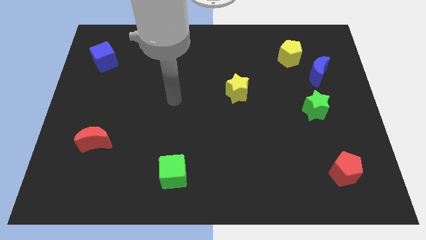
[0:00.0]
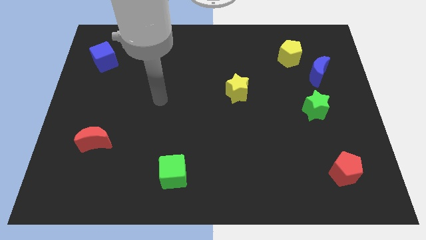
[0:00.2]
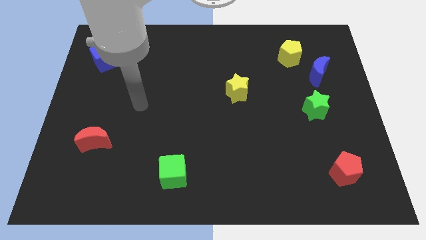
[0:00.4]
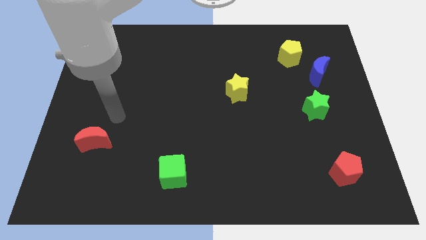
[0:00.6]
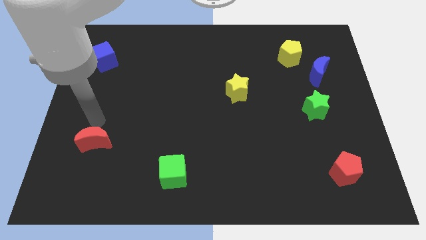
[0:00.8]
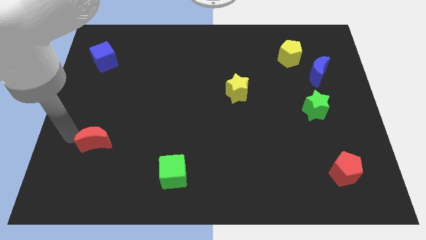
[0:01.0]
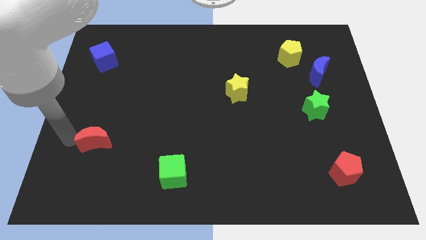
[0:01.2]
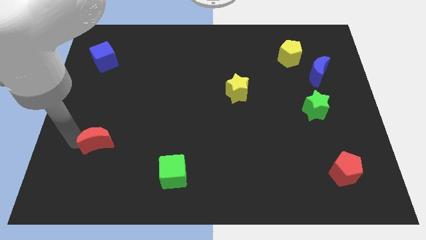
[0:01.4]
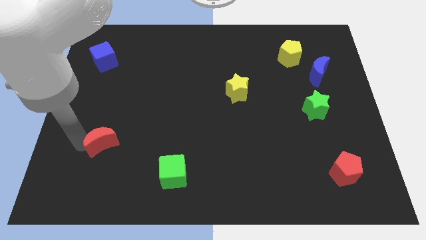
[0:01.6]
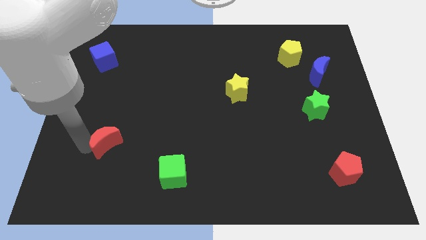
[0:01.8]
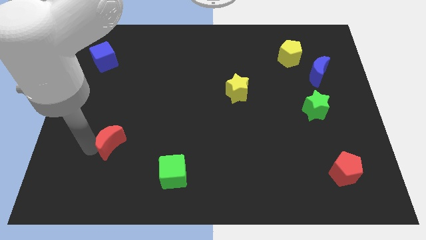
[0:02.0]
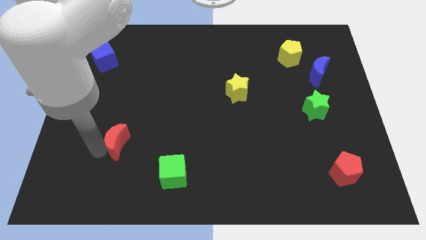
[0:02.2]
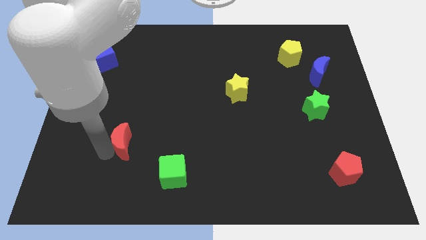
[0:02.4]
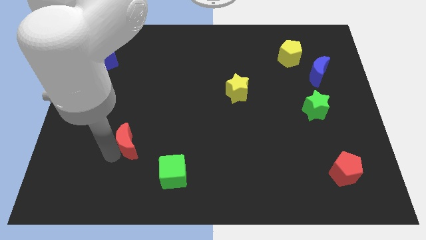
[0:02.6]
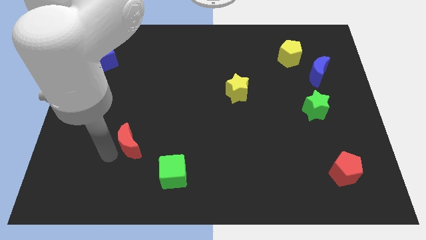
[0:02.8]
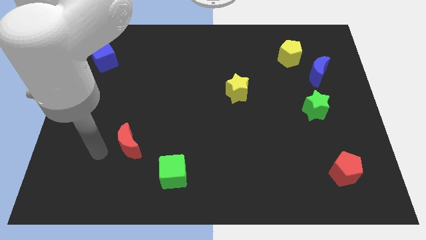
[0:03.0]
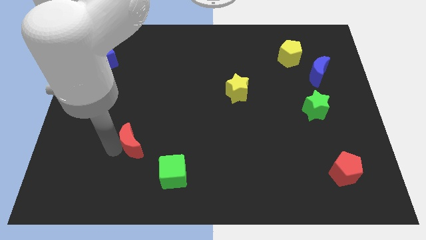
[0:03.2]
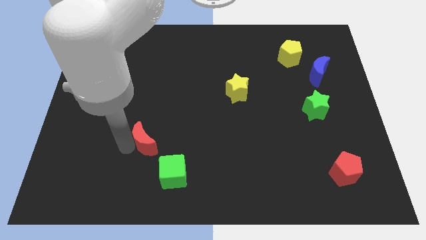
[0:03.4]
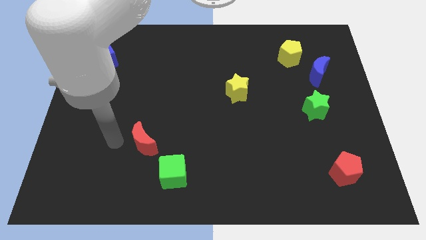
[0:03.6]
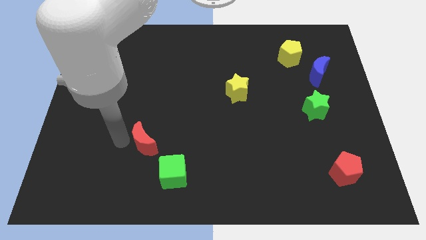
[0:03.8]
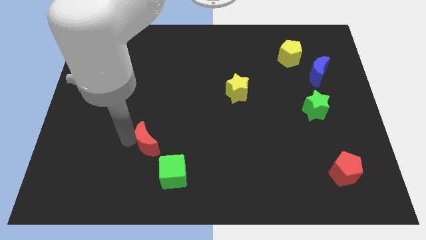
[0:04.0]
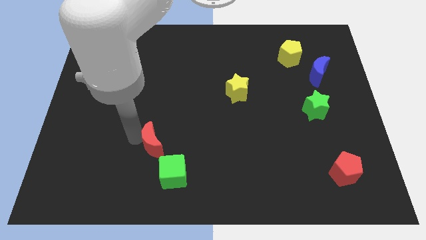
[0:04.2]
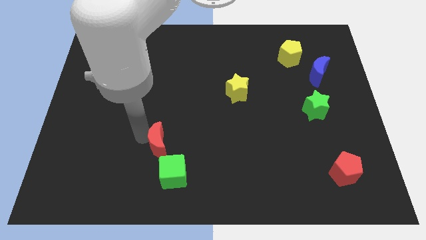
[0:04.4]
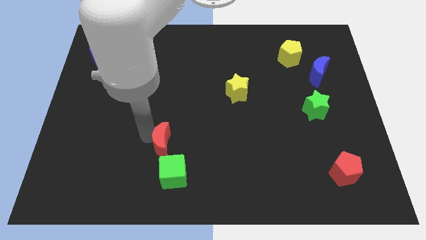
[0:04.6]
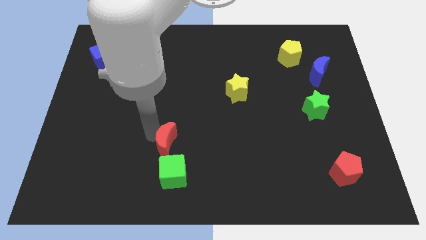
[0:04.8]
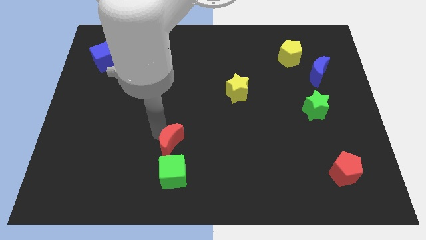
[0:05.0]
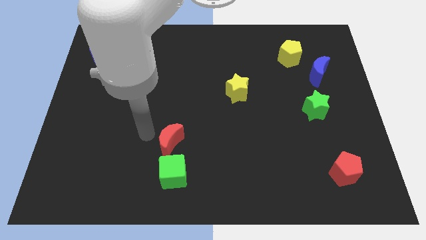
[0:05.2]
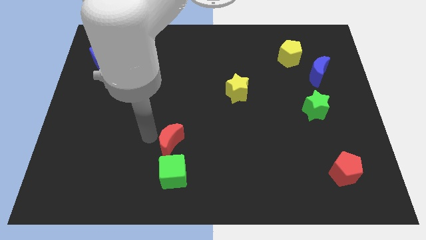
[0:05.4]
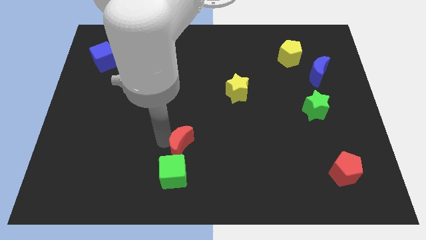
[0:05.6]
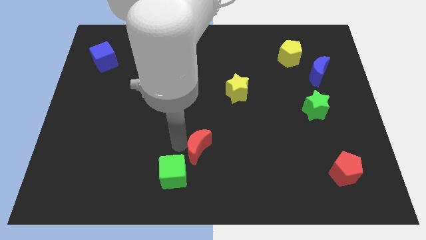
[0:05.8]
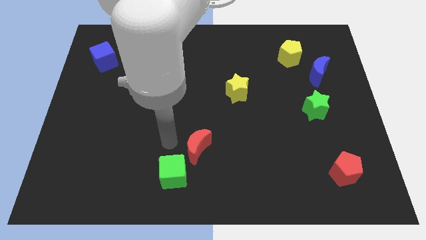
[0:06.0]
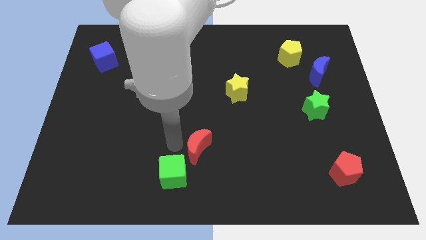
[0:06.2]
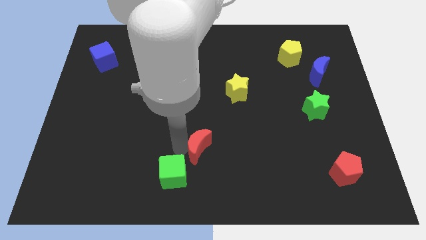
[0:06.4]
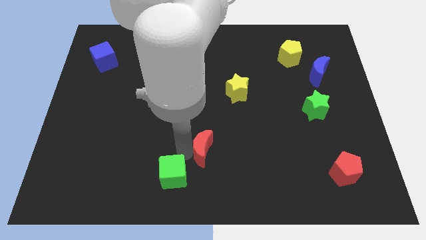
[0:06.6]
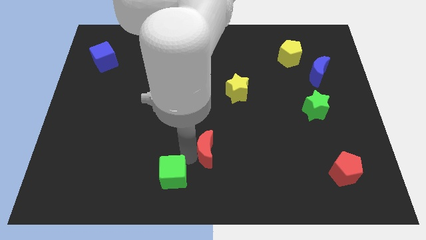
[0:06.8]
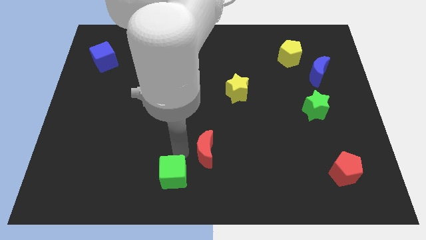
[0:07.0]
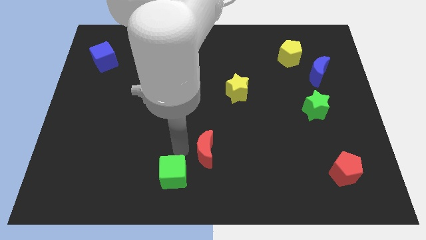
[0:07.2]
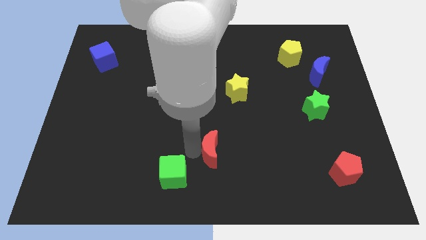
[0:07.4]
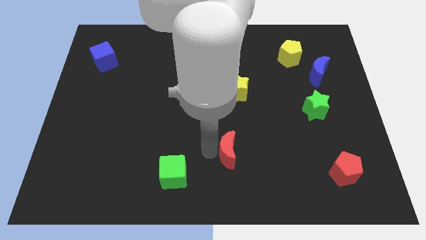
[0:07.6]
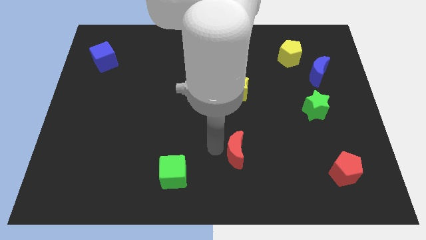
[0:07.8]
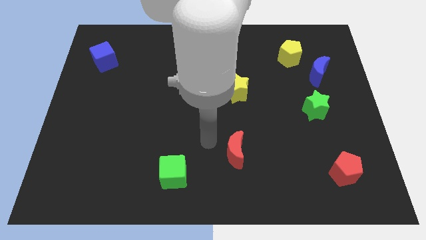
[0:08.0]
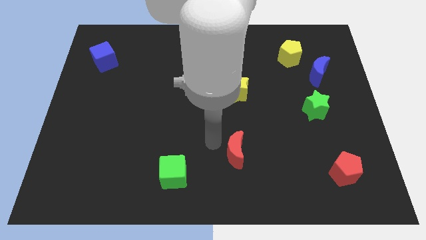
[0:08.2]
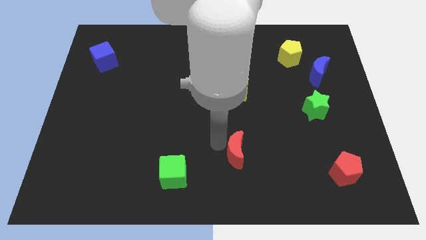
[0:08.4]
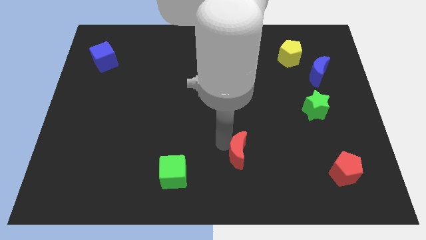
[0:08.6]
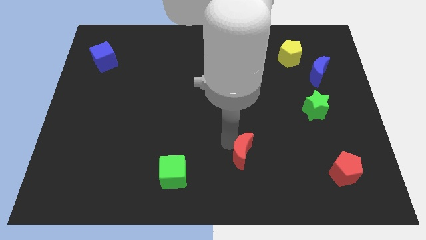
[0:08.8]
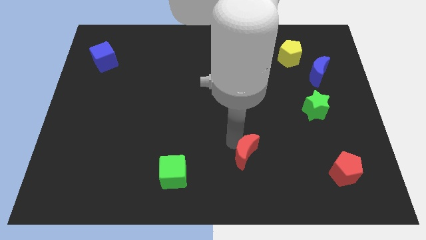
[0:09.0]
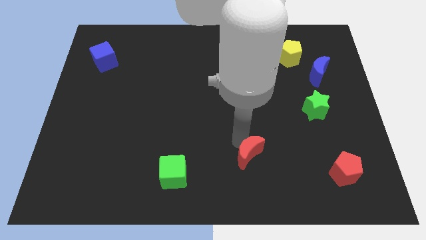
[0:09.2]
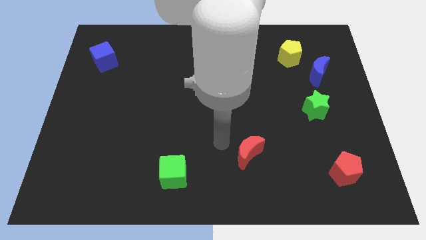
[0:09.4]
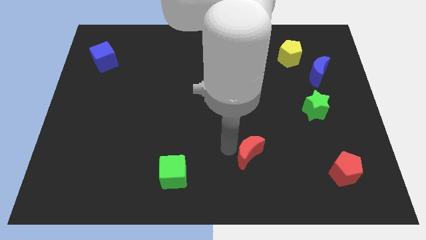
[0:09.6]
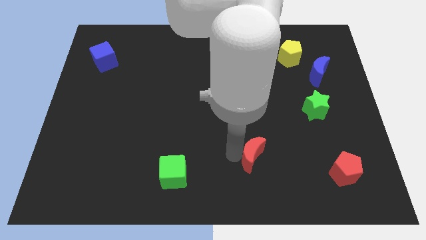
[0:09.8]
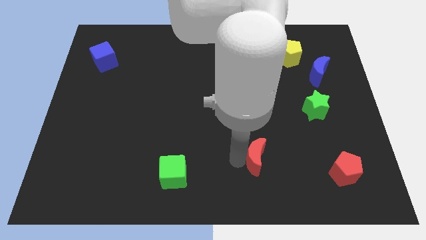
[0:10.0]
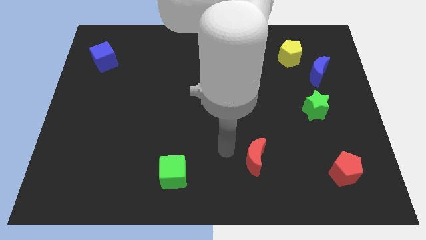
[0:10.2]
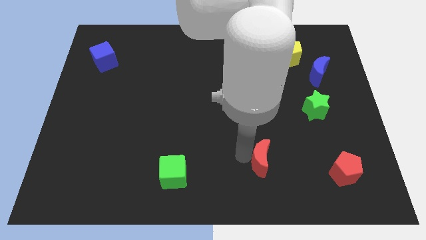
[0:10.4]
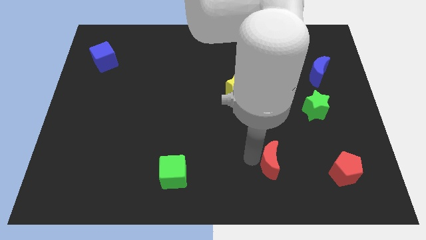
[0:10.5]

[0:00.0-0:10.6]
put the red moon just left of the red pentagon
